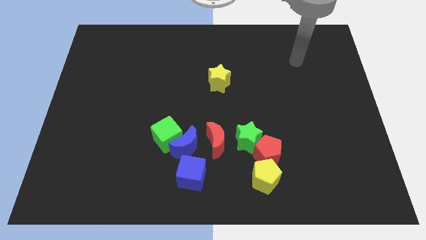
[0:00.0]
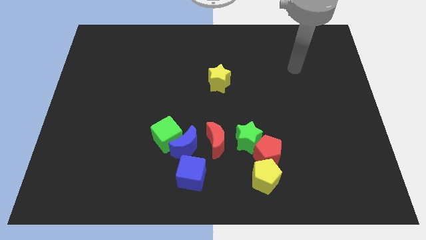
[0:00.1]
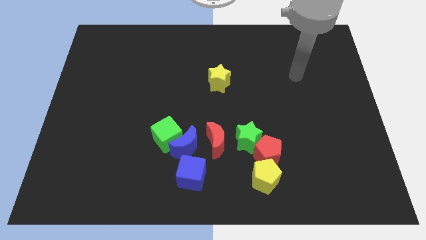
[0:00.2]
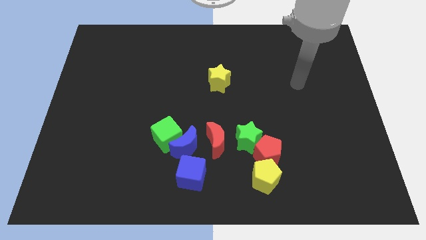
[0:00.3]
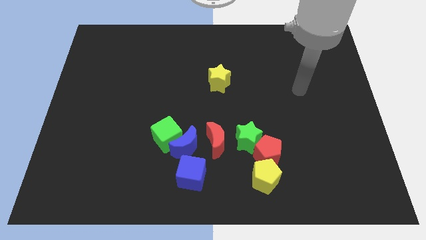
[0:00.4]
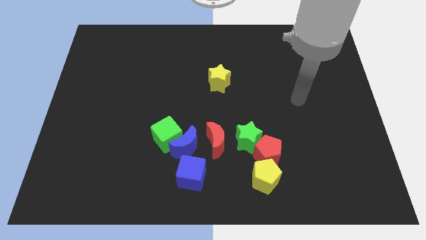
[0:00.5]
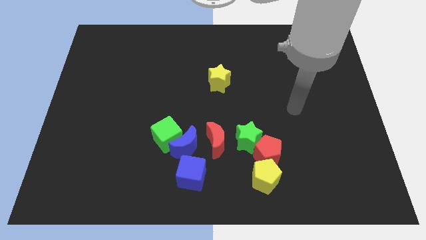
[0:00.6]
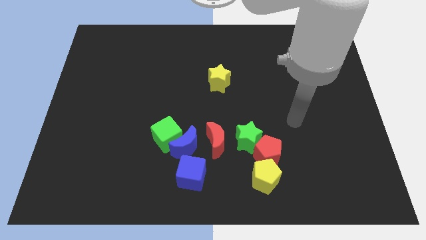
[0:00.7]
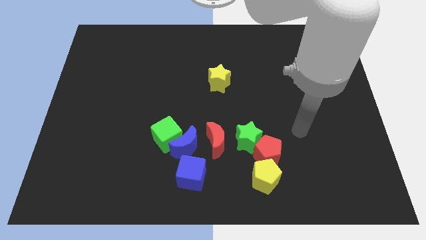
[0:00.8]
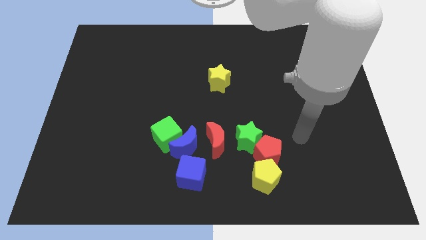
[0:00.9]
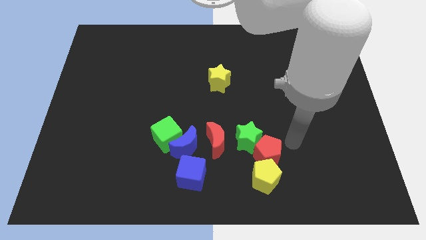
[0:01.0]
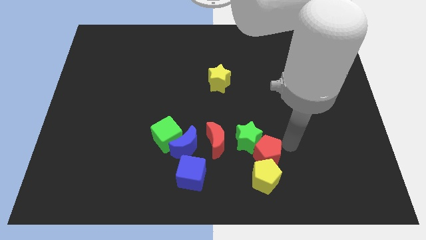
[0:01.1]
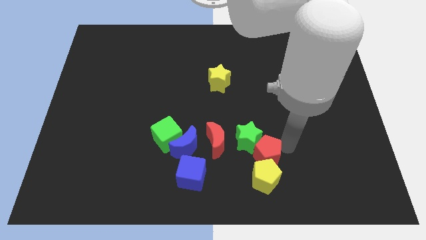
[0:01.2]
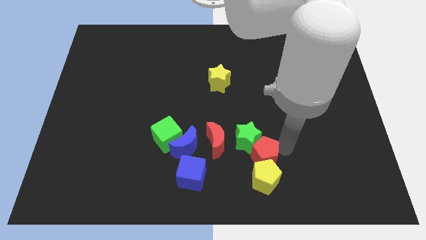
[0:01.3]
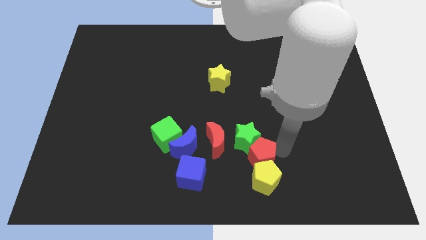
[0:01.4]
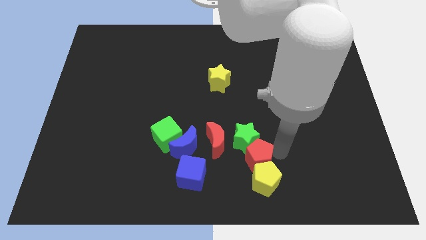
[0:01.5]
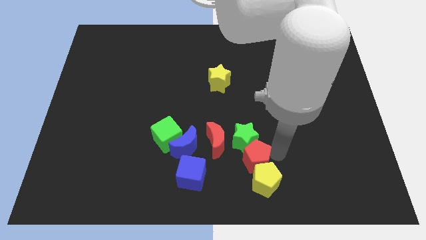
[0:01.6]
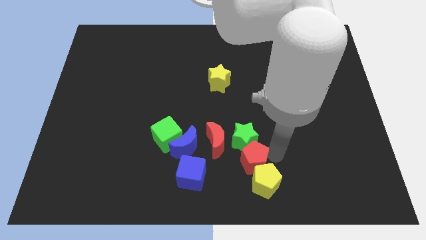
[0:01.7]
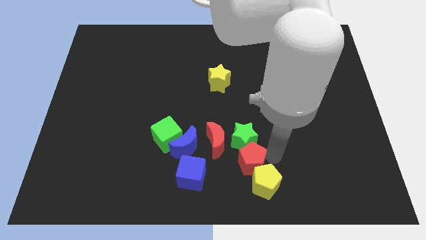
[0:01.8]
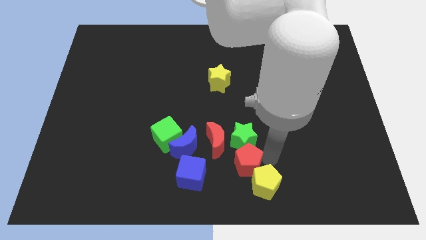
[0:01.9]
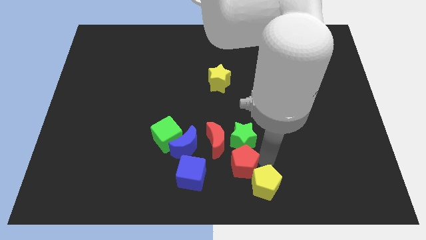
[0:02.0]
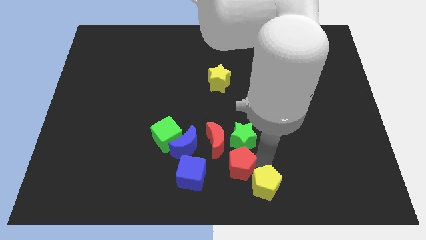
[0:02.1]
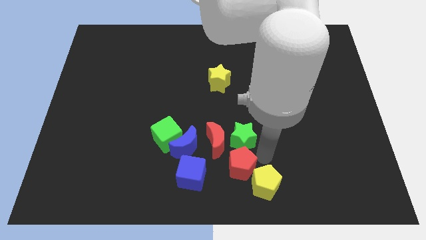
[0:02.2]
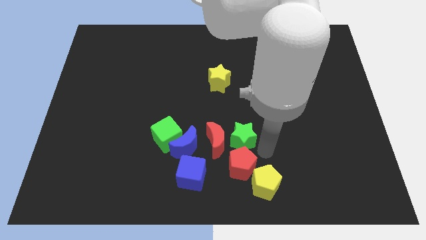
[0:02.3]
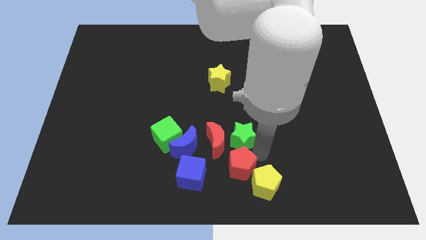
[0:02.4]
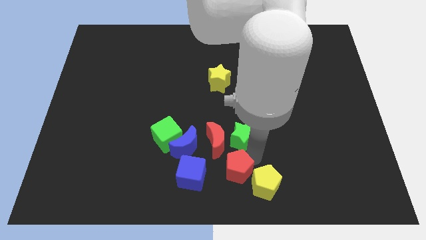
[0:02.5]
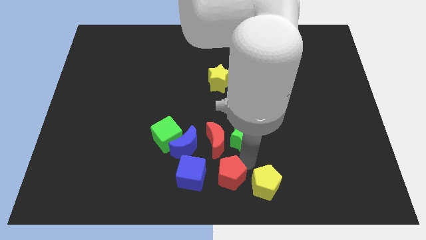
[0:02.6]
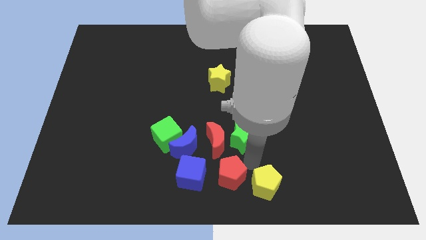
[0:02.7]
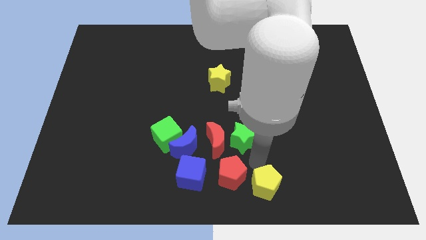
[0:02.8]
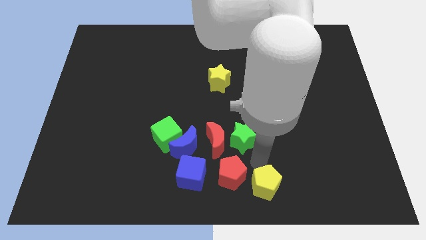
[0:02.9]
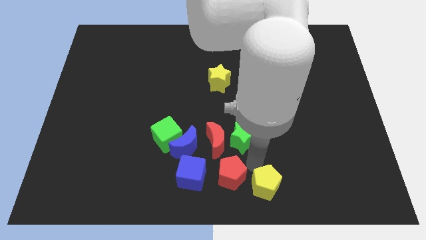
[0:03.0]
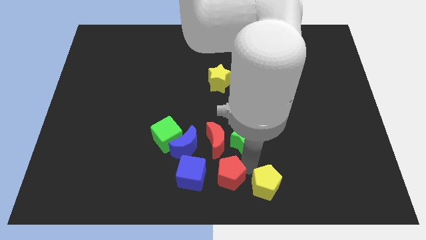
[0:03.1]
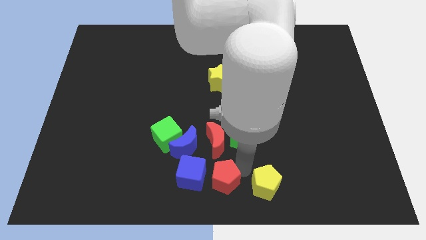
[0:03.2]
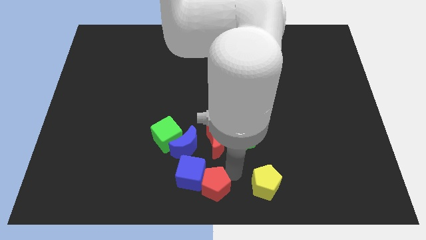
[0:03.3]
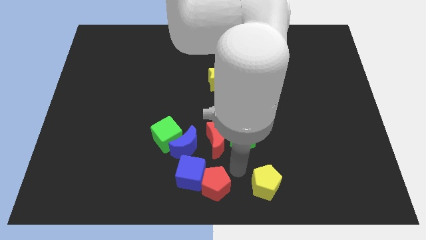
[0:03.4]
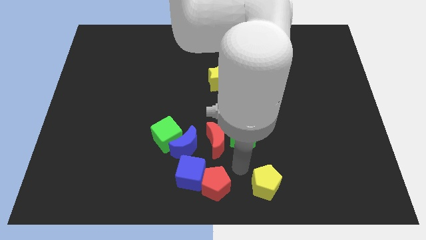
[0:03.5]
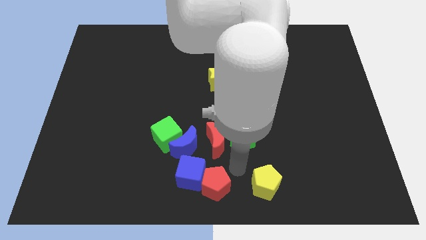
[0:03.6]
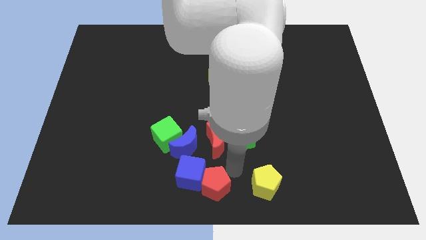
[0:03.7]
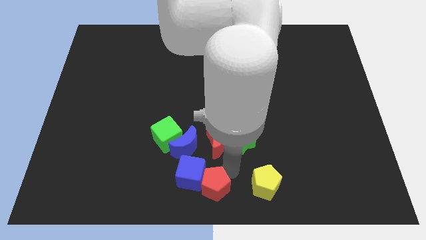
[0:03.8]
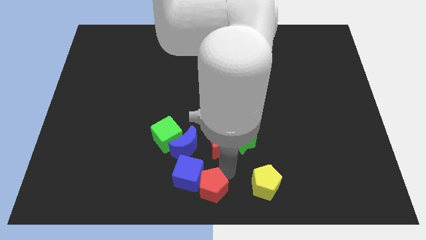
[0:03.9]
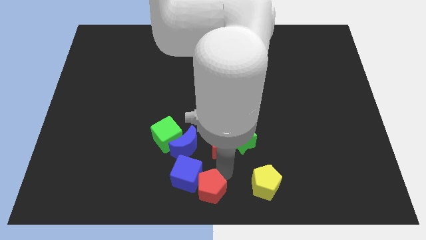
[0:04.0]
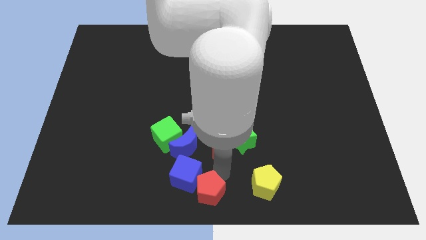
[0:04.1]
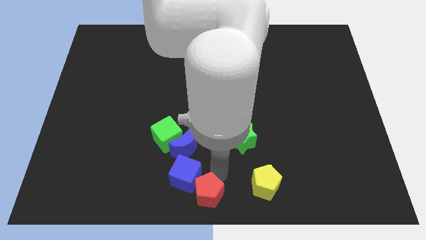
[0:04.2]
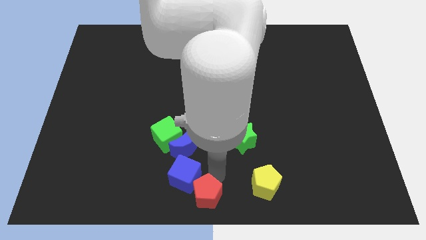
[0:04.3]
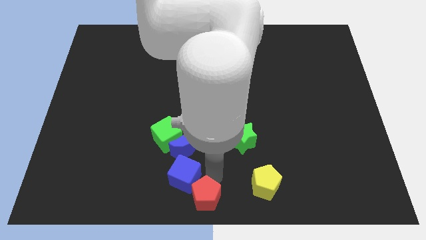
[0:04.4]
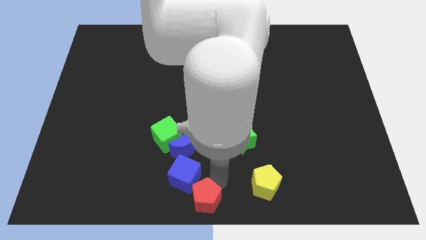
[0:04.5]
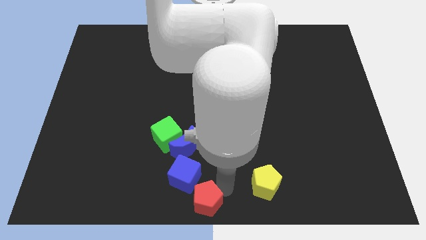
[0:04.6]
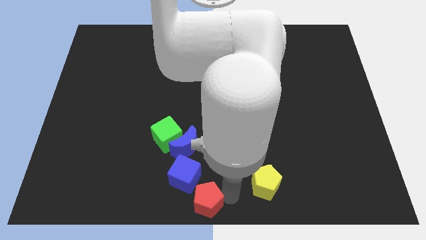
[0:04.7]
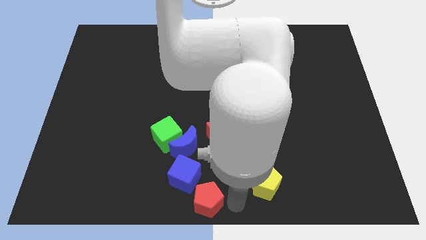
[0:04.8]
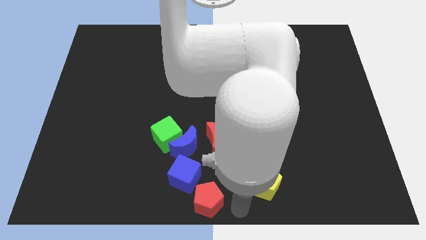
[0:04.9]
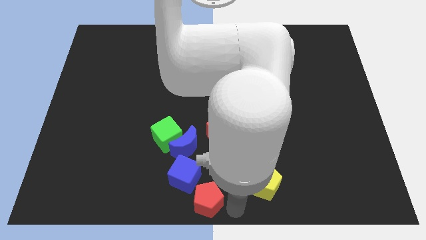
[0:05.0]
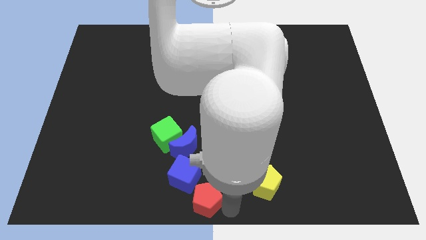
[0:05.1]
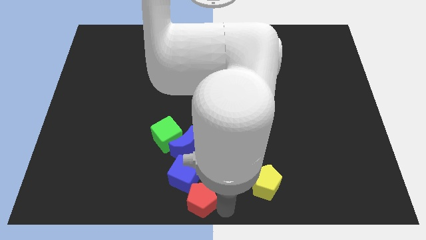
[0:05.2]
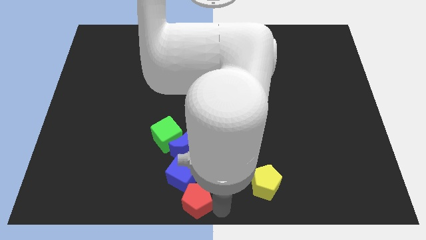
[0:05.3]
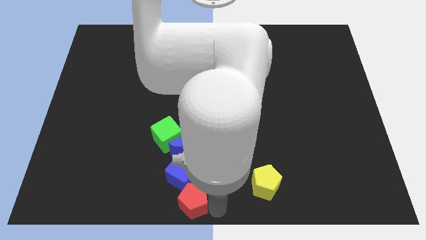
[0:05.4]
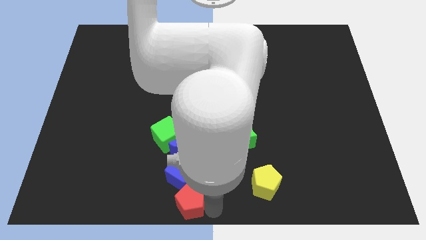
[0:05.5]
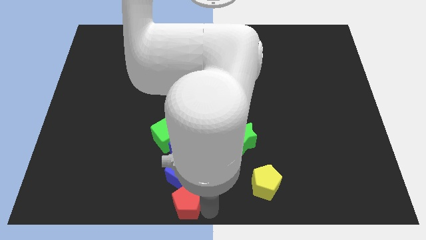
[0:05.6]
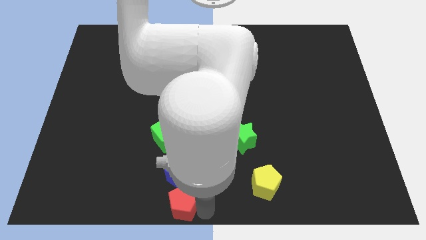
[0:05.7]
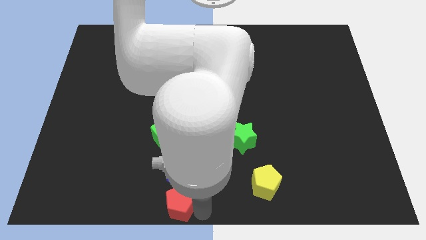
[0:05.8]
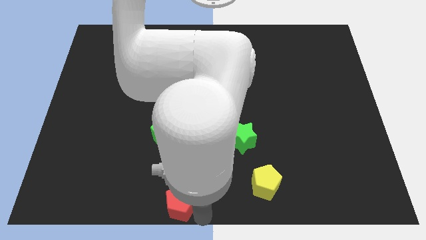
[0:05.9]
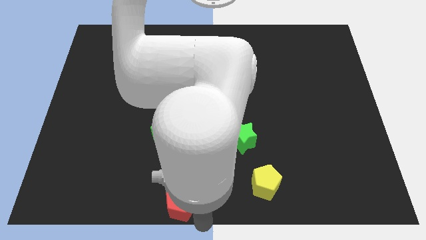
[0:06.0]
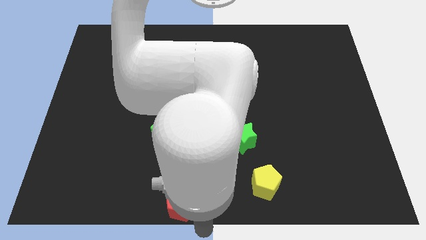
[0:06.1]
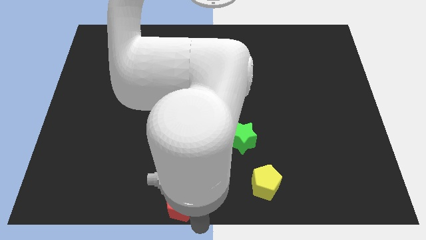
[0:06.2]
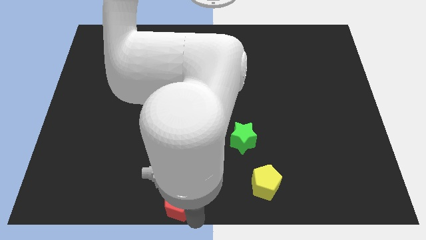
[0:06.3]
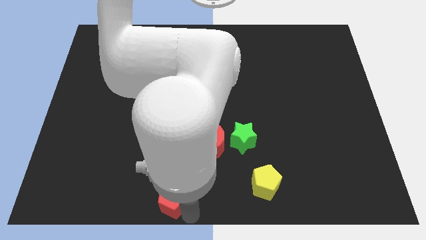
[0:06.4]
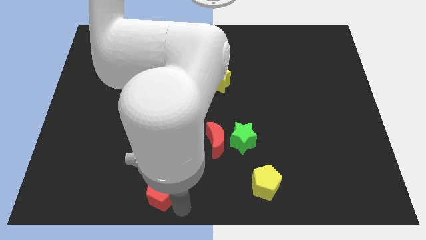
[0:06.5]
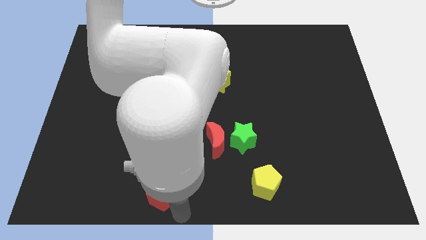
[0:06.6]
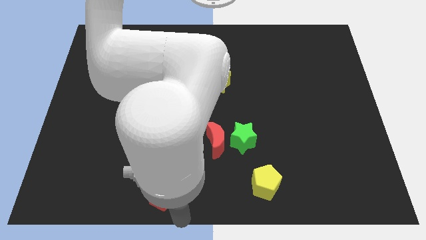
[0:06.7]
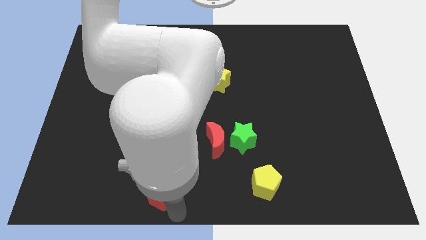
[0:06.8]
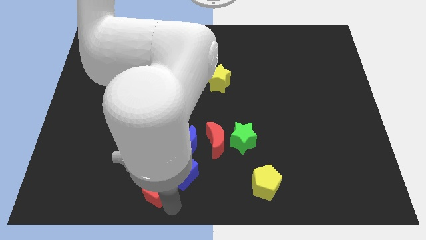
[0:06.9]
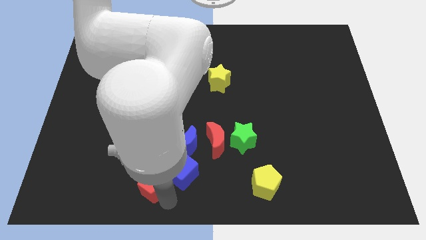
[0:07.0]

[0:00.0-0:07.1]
slide the red pentagon to the left

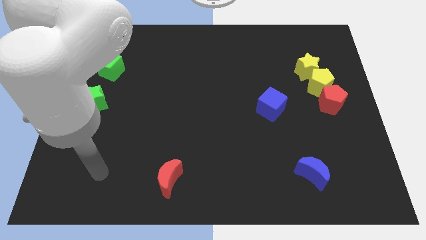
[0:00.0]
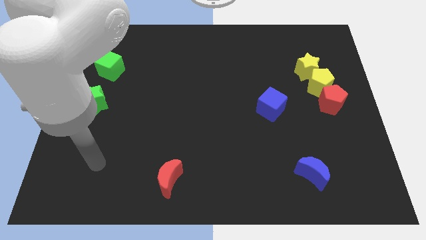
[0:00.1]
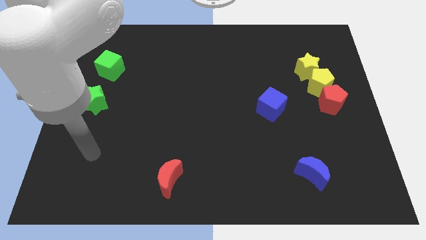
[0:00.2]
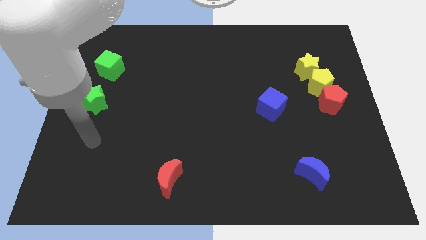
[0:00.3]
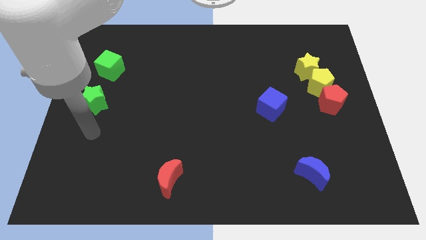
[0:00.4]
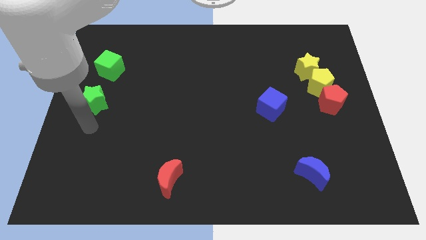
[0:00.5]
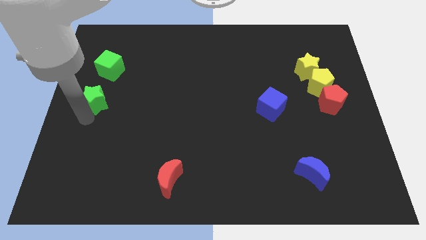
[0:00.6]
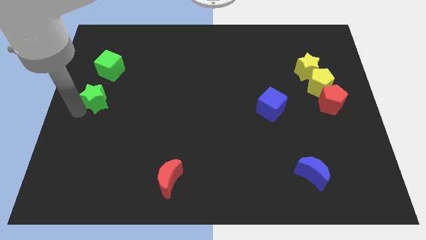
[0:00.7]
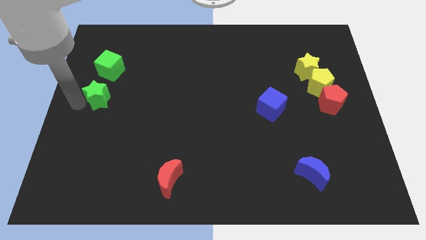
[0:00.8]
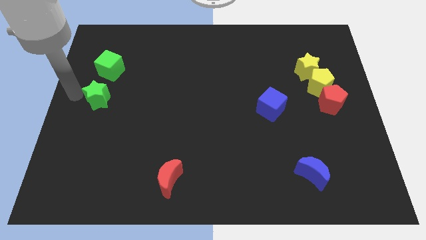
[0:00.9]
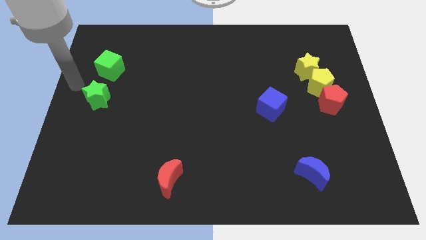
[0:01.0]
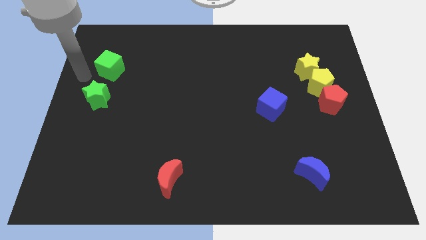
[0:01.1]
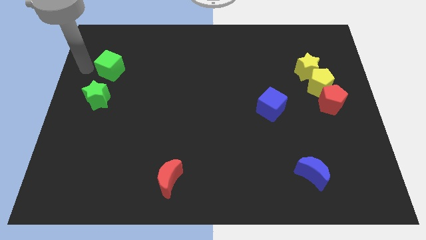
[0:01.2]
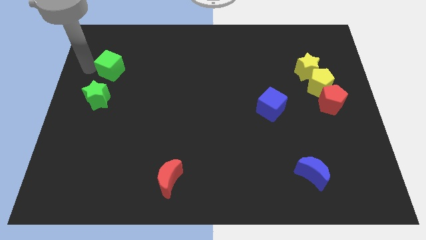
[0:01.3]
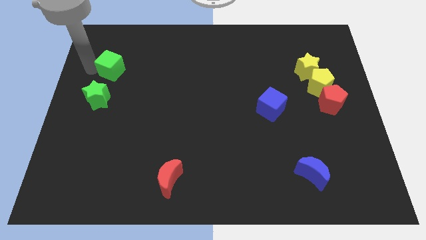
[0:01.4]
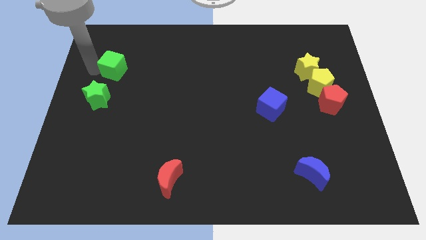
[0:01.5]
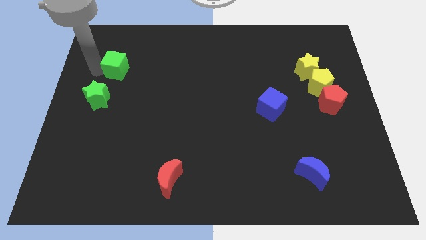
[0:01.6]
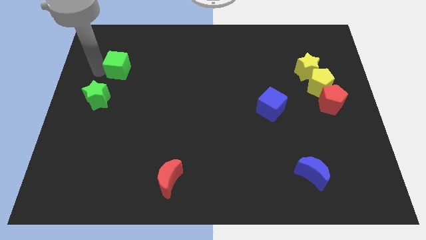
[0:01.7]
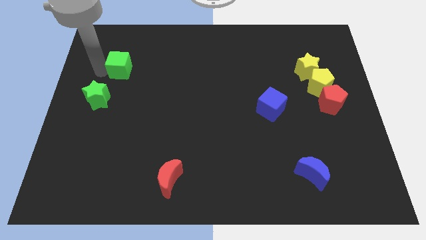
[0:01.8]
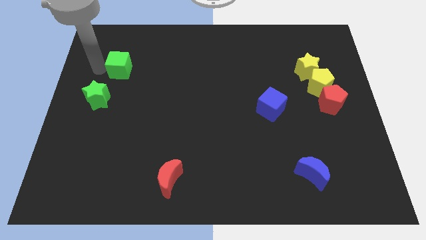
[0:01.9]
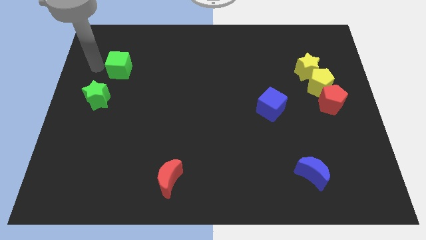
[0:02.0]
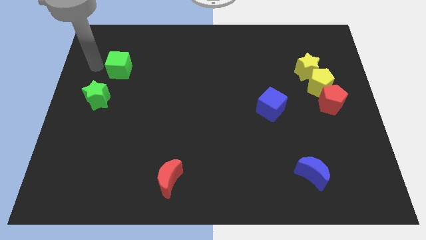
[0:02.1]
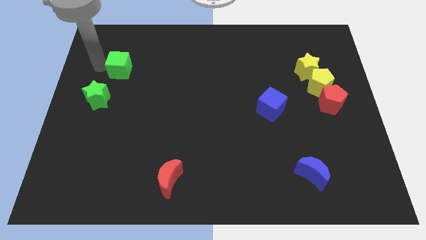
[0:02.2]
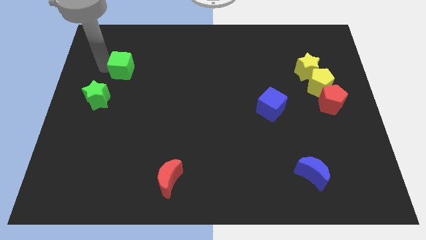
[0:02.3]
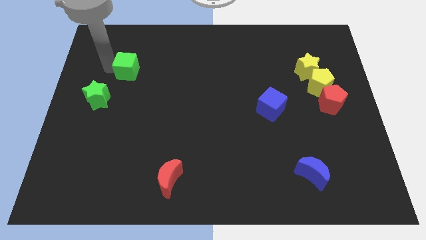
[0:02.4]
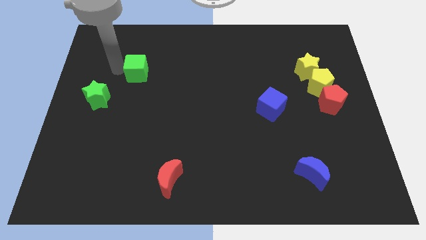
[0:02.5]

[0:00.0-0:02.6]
move the green cube to the right somewhat
